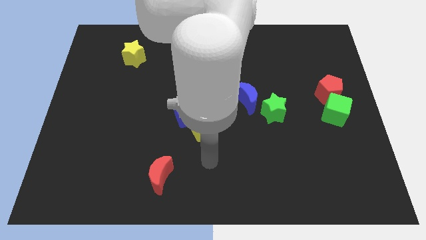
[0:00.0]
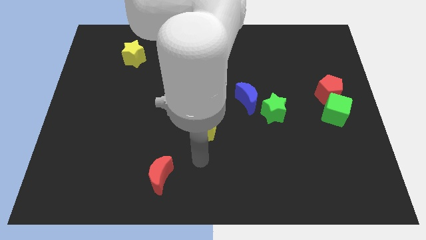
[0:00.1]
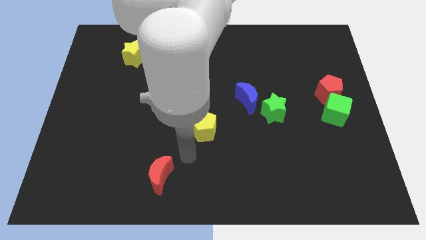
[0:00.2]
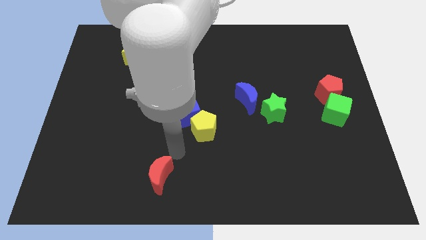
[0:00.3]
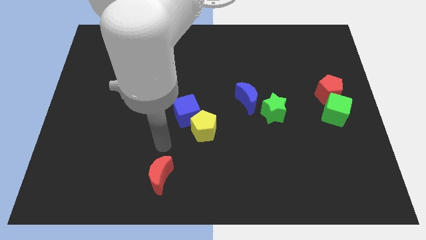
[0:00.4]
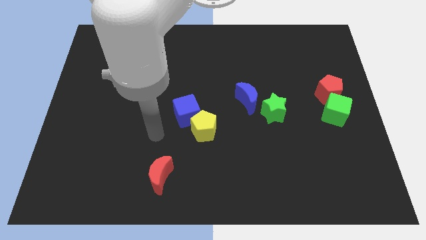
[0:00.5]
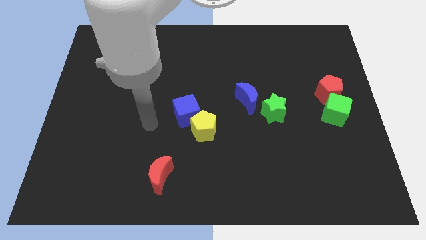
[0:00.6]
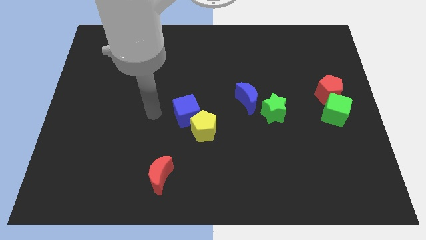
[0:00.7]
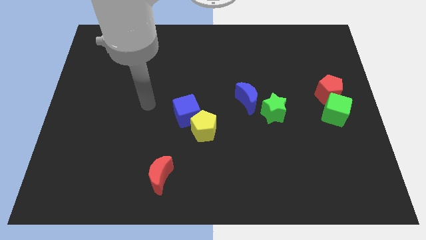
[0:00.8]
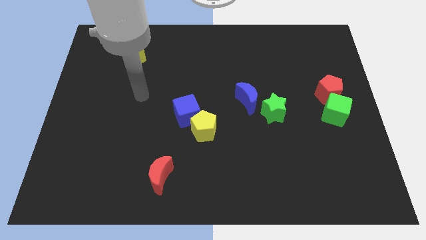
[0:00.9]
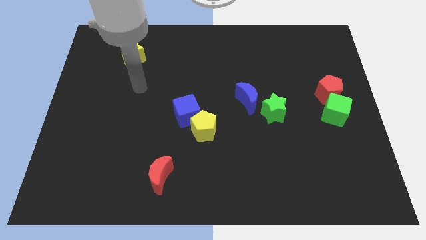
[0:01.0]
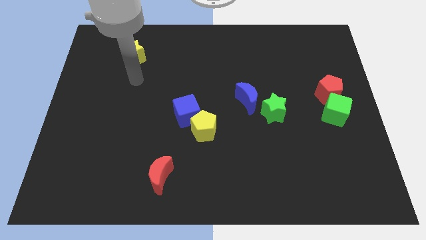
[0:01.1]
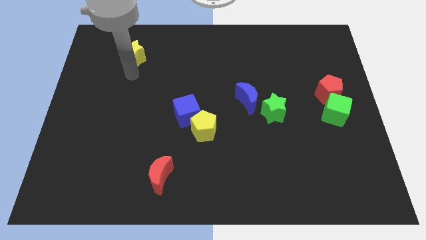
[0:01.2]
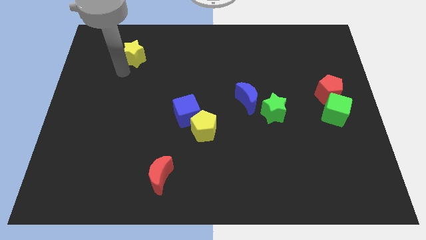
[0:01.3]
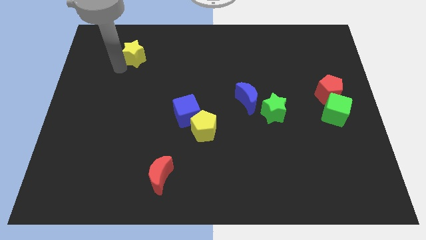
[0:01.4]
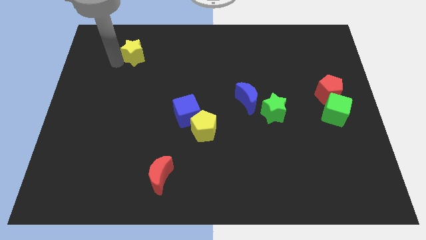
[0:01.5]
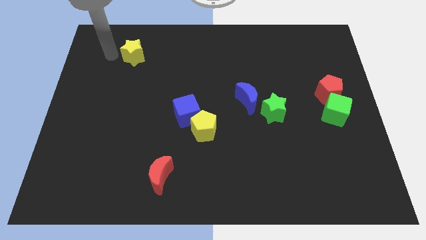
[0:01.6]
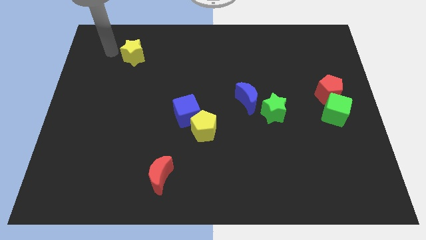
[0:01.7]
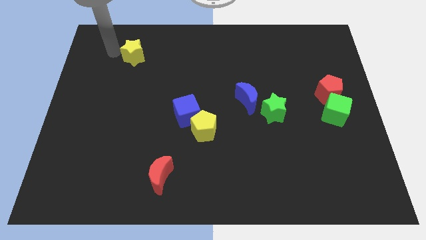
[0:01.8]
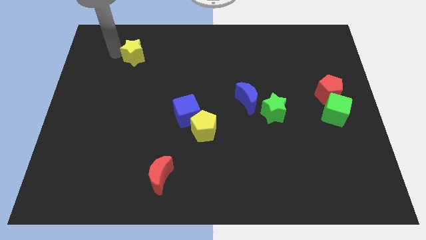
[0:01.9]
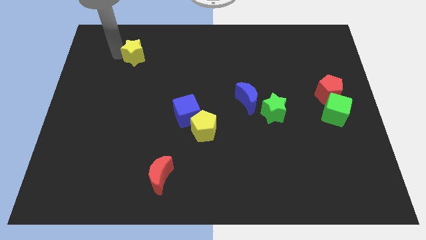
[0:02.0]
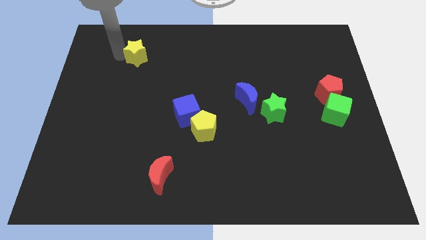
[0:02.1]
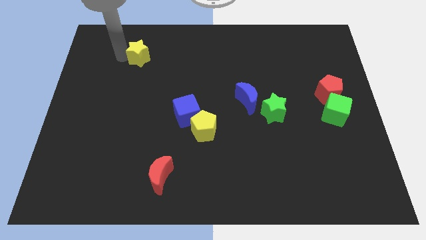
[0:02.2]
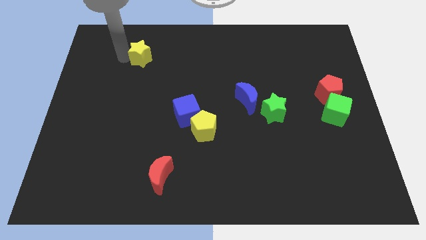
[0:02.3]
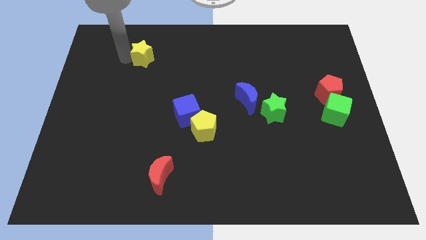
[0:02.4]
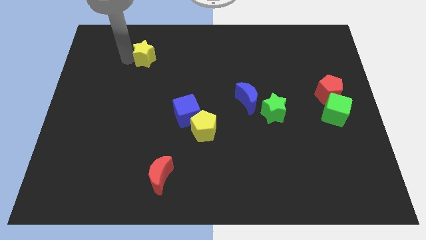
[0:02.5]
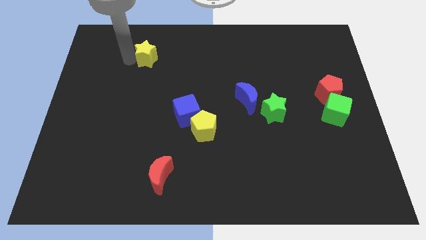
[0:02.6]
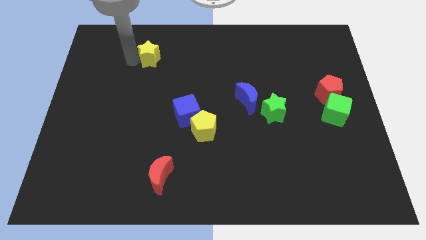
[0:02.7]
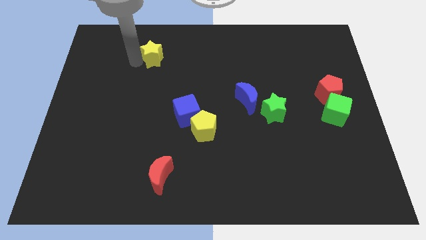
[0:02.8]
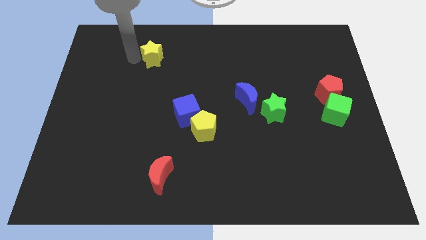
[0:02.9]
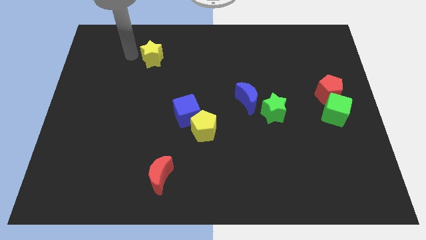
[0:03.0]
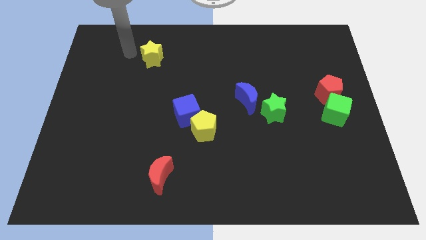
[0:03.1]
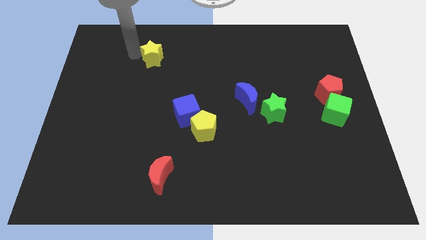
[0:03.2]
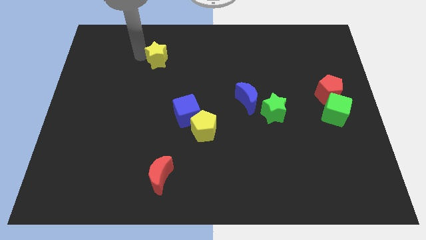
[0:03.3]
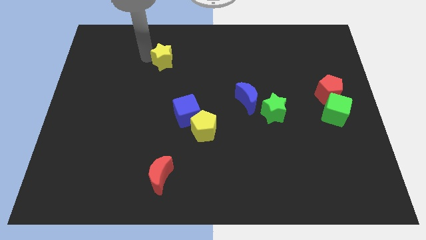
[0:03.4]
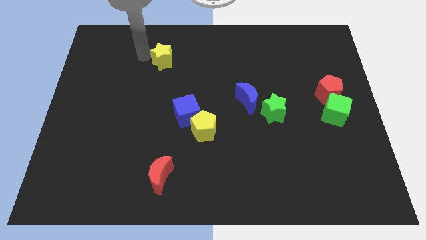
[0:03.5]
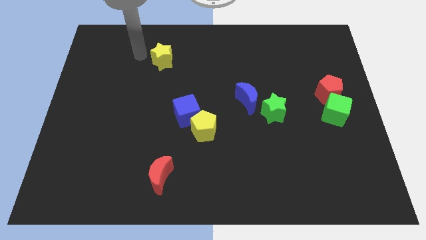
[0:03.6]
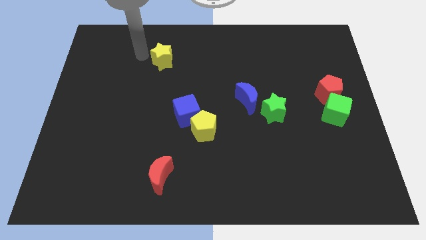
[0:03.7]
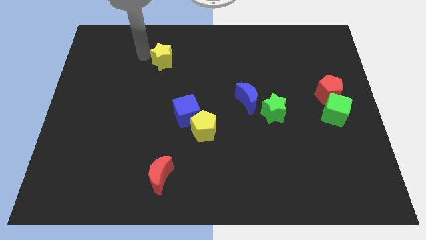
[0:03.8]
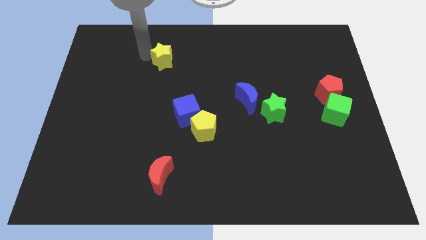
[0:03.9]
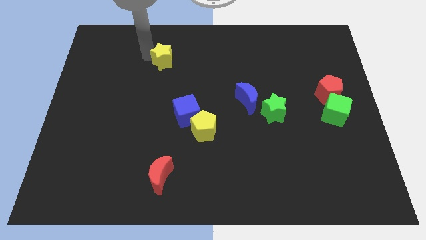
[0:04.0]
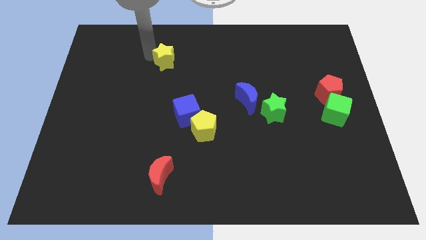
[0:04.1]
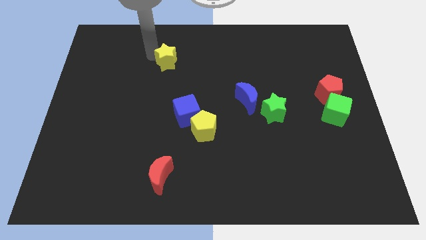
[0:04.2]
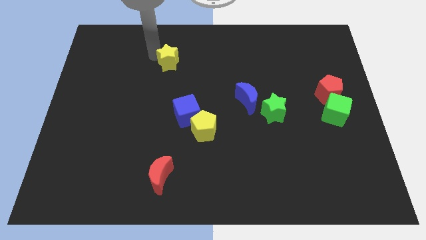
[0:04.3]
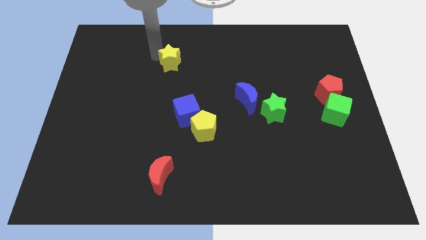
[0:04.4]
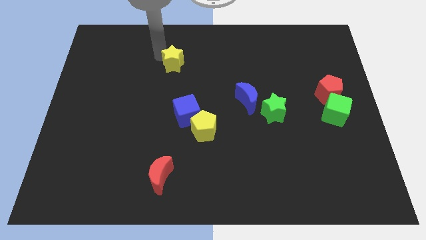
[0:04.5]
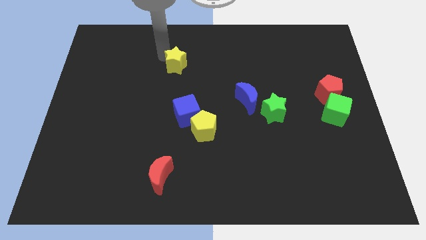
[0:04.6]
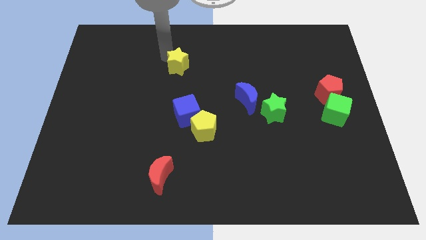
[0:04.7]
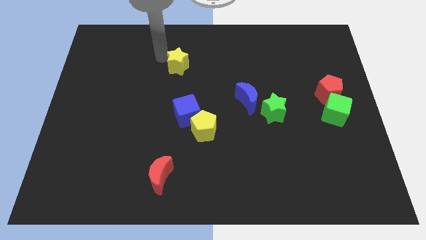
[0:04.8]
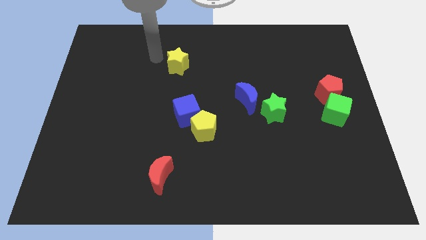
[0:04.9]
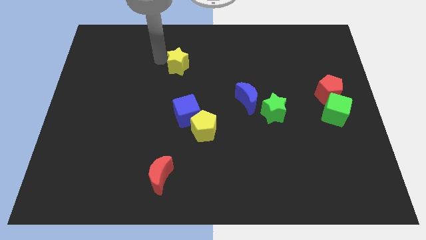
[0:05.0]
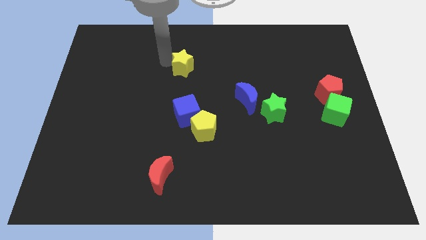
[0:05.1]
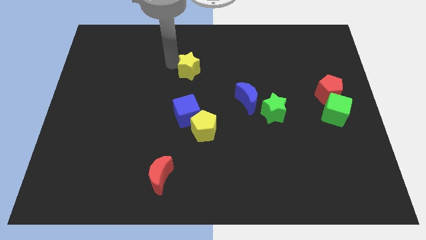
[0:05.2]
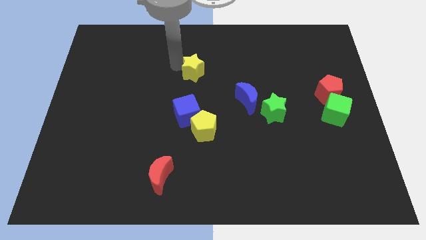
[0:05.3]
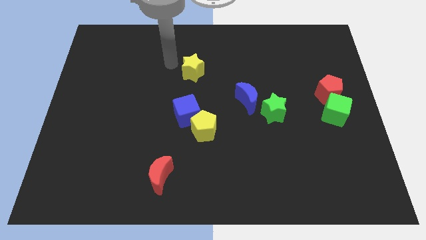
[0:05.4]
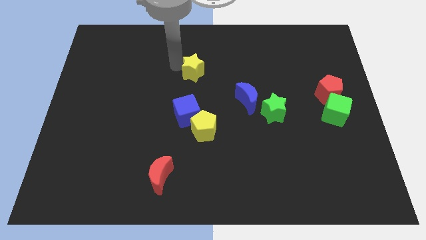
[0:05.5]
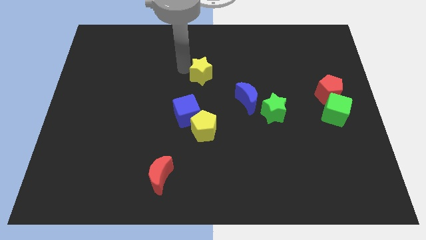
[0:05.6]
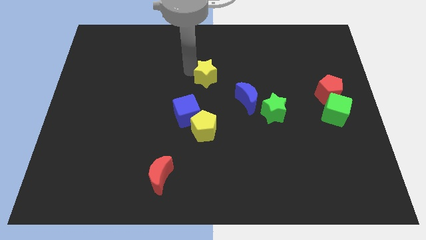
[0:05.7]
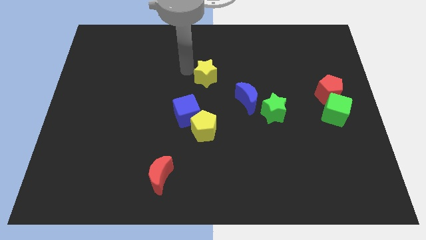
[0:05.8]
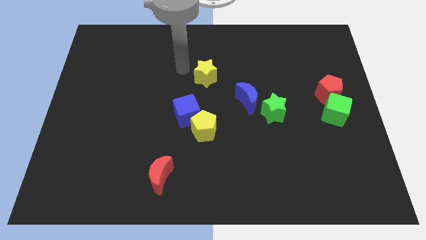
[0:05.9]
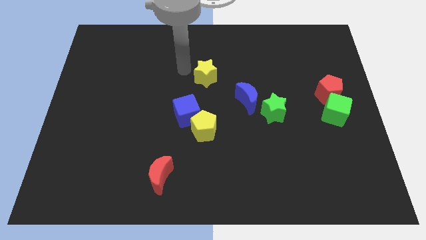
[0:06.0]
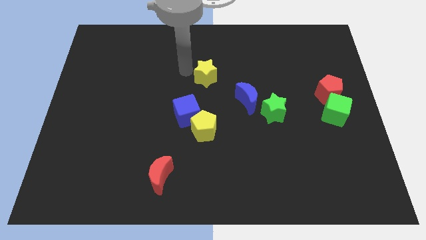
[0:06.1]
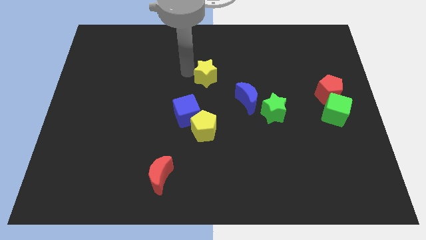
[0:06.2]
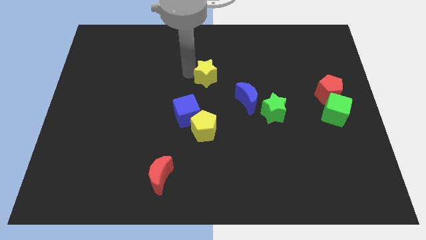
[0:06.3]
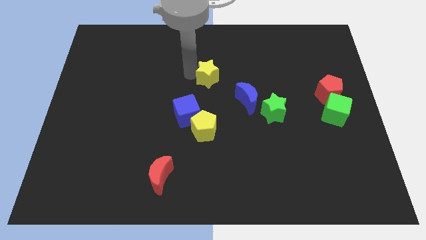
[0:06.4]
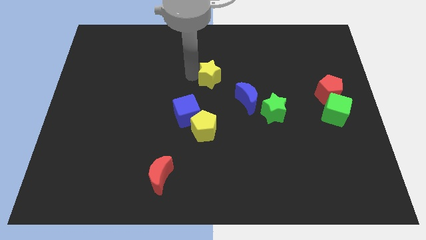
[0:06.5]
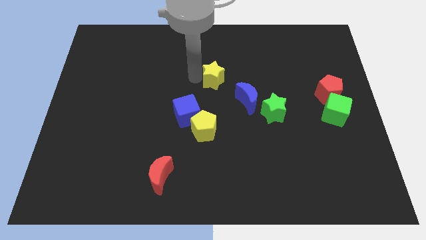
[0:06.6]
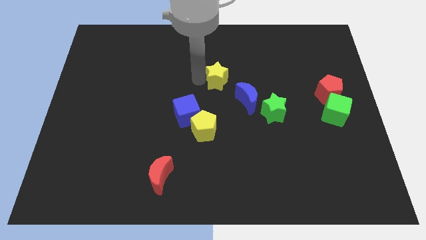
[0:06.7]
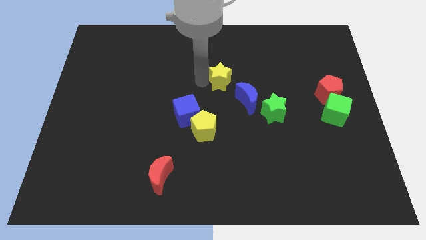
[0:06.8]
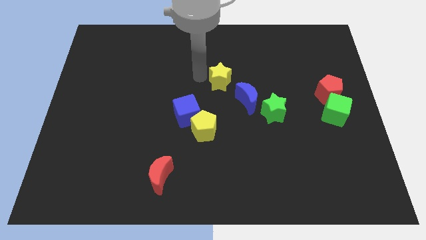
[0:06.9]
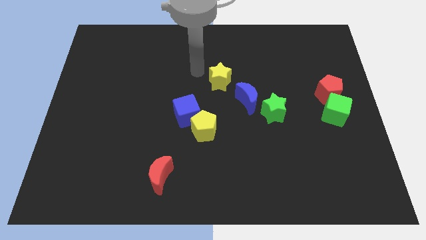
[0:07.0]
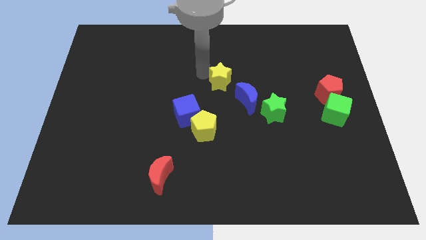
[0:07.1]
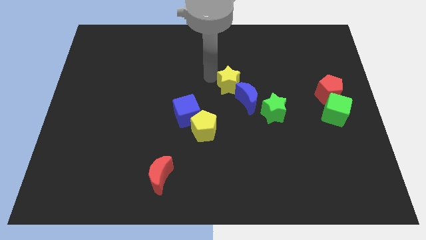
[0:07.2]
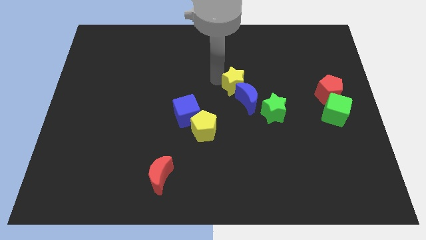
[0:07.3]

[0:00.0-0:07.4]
move the yellow star to the top left of the green star

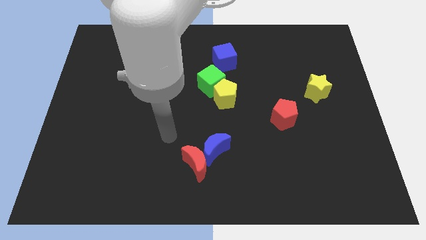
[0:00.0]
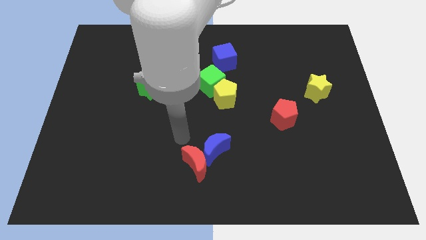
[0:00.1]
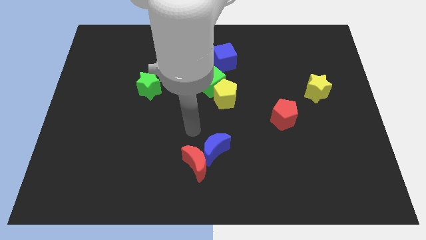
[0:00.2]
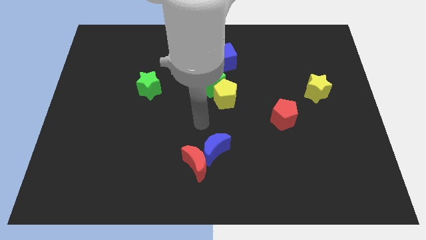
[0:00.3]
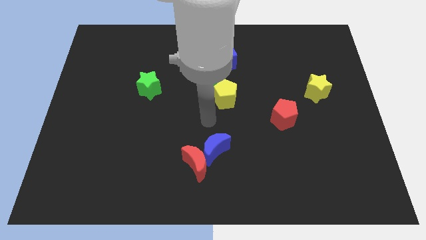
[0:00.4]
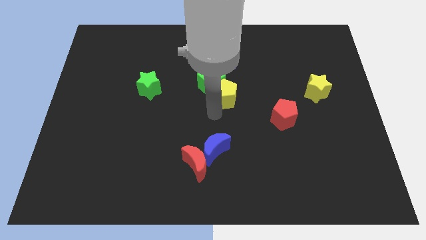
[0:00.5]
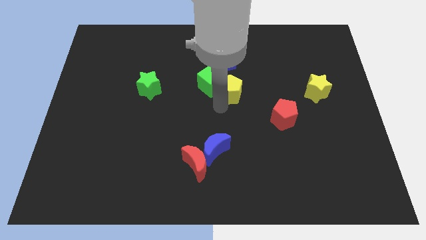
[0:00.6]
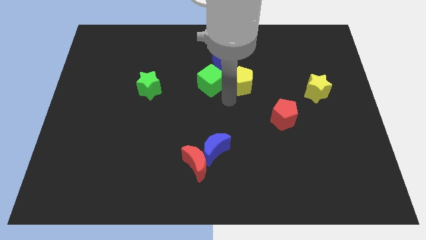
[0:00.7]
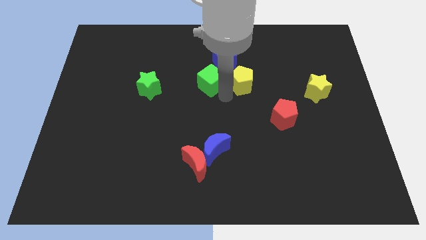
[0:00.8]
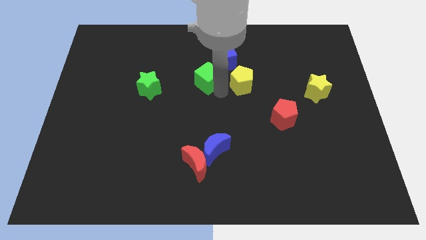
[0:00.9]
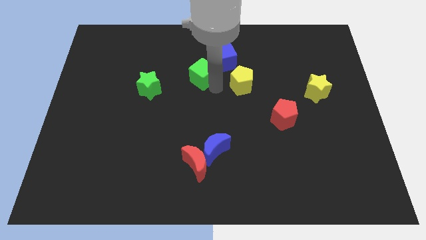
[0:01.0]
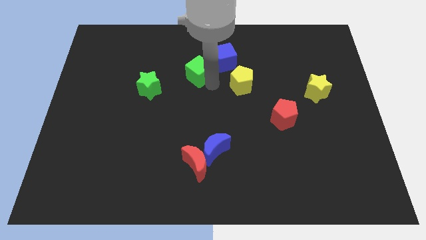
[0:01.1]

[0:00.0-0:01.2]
put the green cube just left of the blue cube
